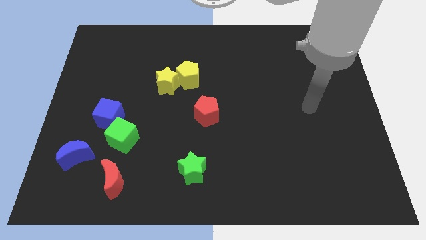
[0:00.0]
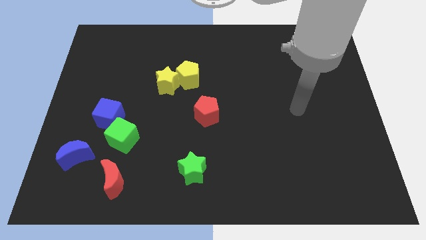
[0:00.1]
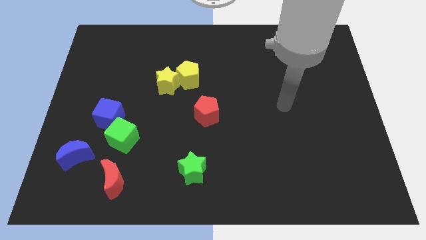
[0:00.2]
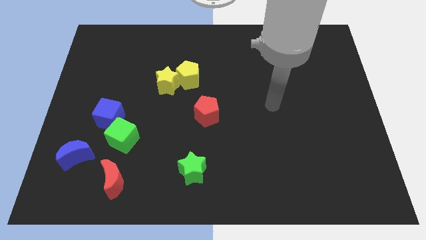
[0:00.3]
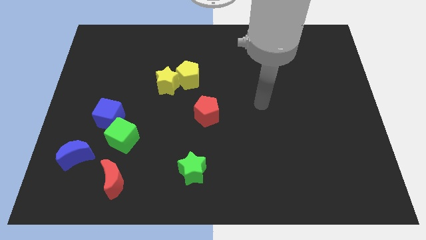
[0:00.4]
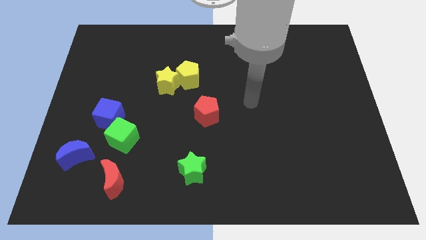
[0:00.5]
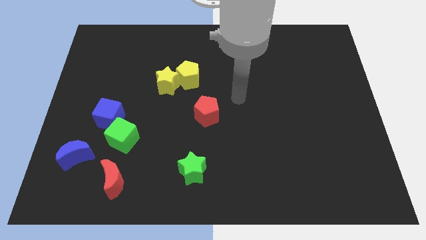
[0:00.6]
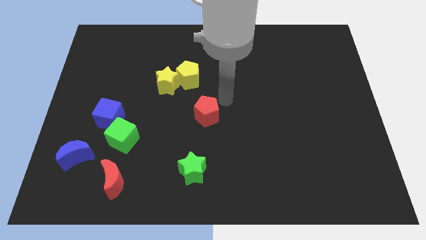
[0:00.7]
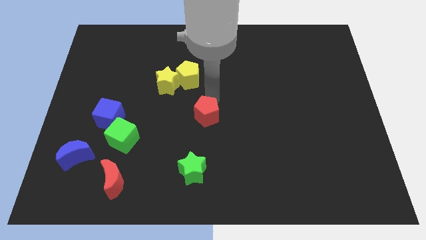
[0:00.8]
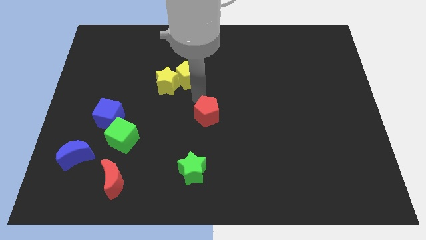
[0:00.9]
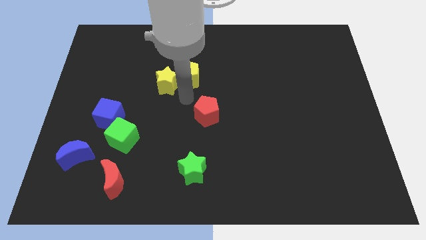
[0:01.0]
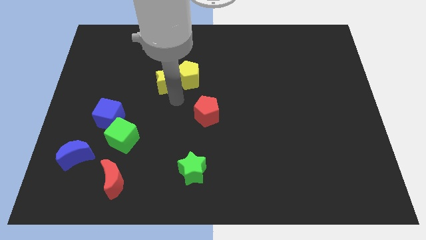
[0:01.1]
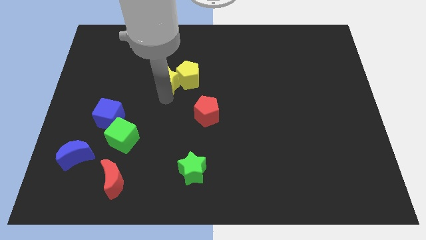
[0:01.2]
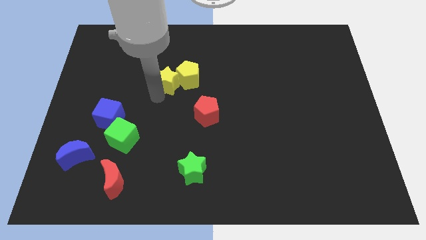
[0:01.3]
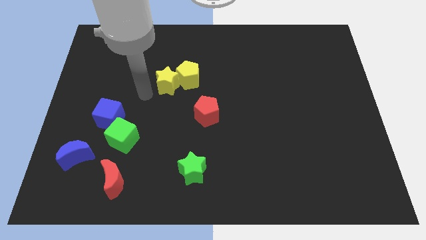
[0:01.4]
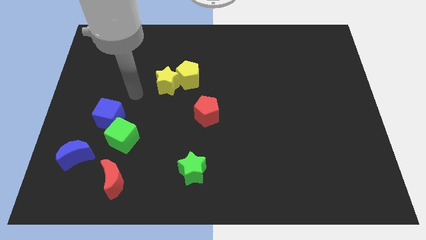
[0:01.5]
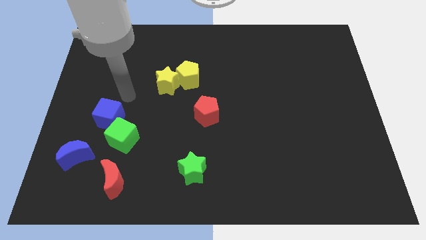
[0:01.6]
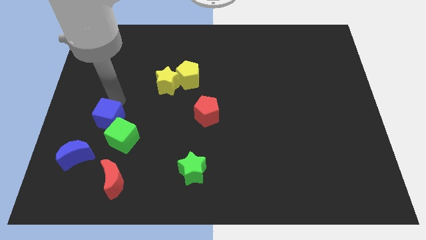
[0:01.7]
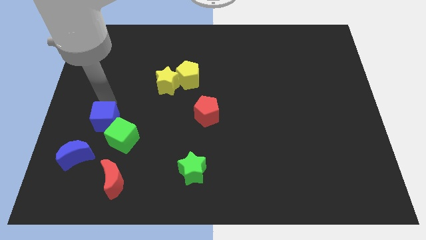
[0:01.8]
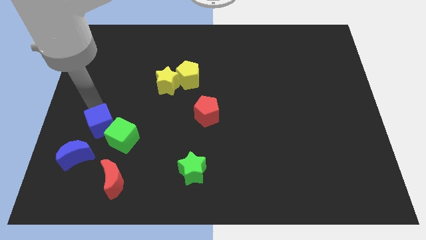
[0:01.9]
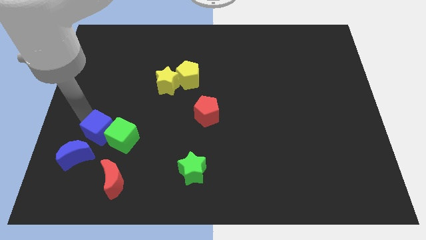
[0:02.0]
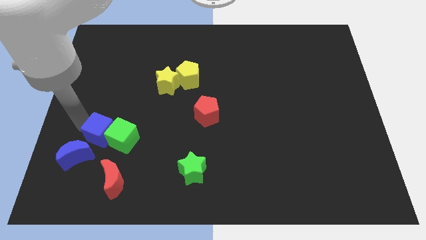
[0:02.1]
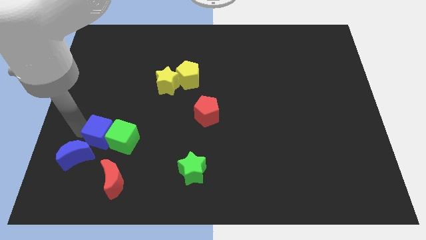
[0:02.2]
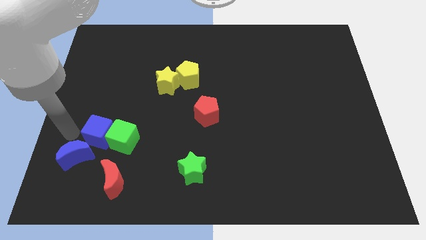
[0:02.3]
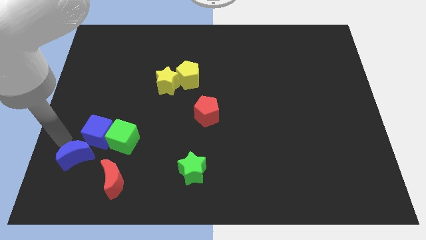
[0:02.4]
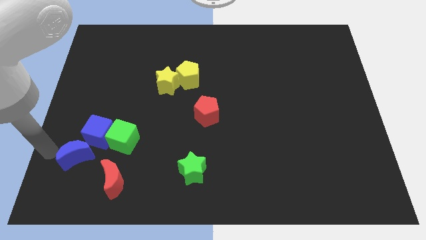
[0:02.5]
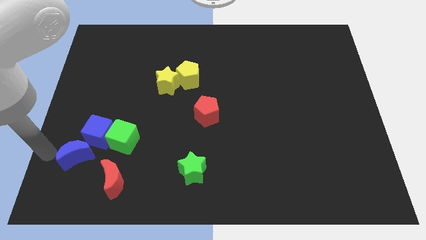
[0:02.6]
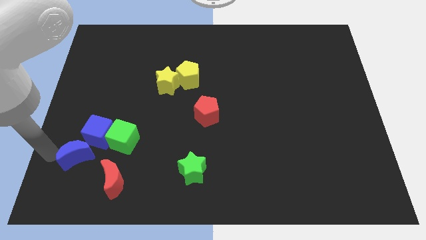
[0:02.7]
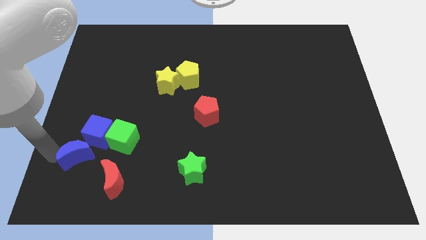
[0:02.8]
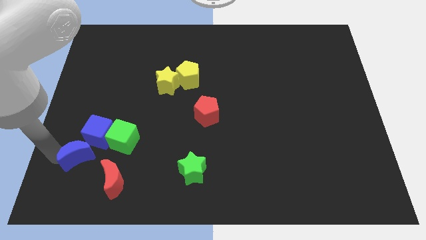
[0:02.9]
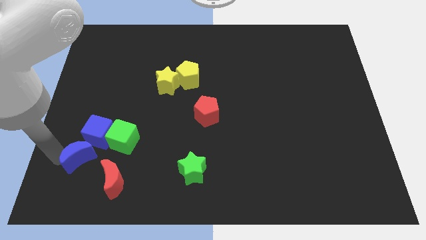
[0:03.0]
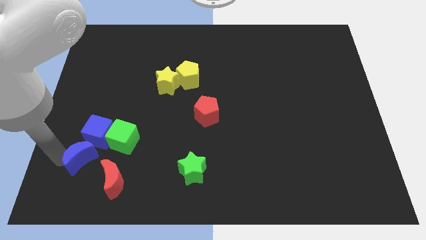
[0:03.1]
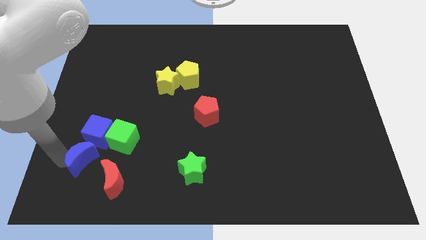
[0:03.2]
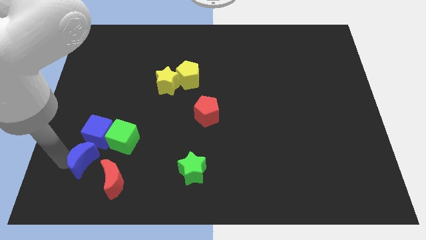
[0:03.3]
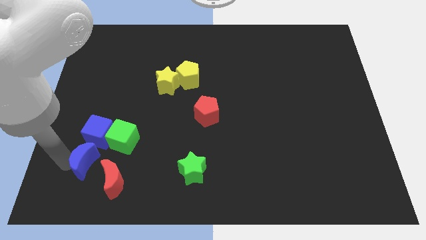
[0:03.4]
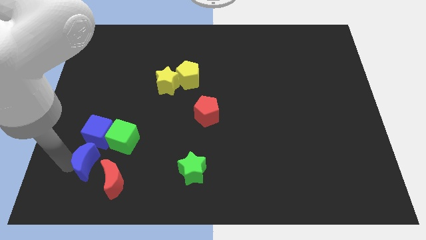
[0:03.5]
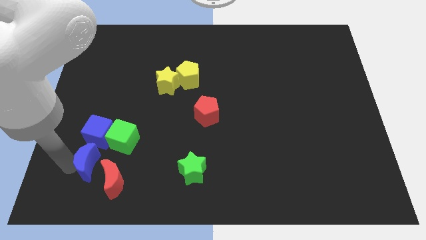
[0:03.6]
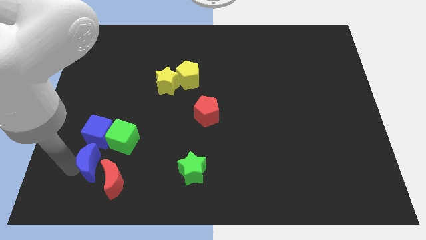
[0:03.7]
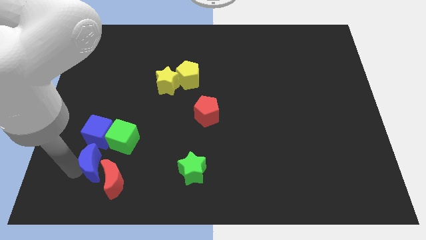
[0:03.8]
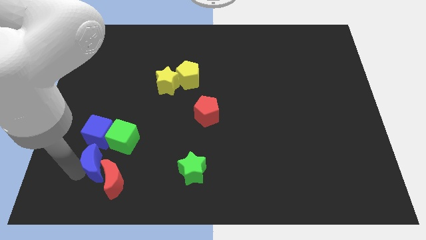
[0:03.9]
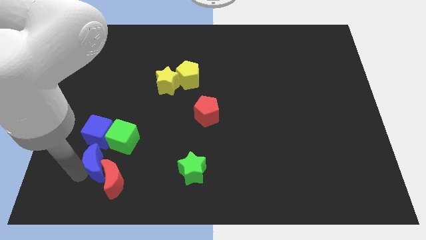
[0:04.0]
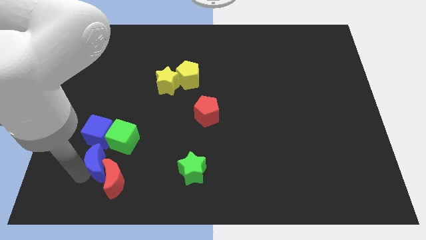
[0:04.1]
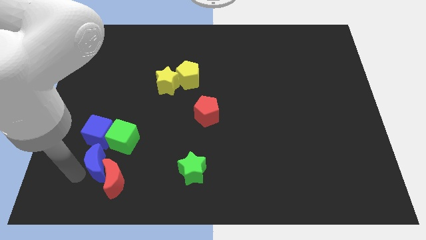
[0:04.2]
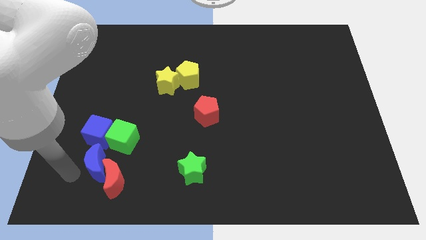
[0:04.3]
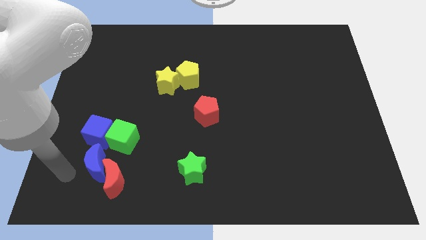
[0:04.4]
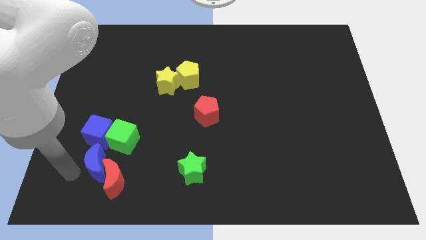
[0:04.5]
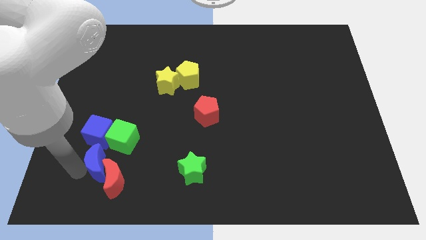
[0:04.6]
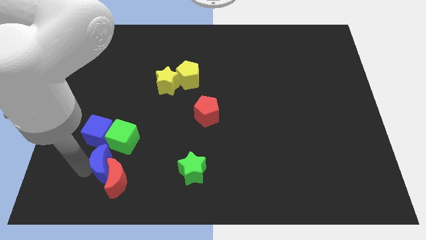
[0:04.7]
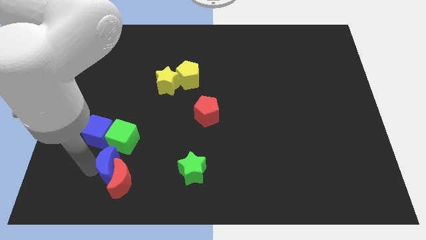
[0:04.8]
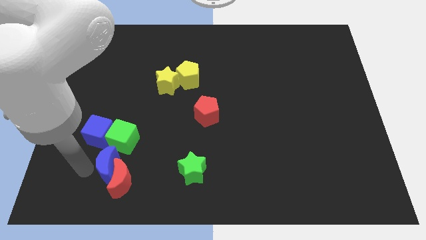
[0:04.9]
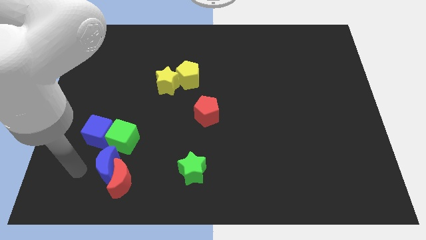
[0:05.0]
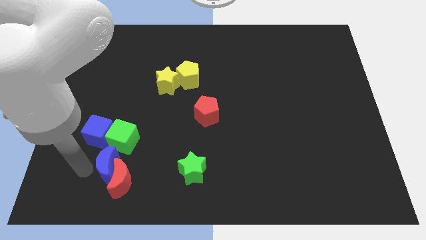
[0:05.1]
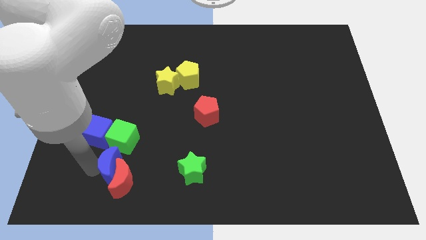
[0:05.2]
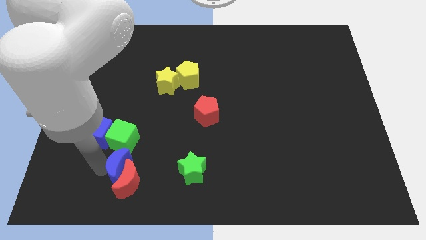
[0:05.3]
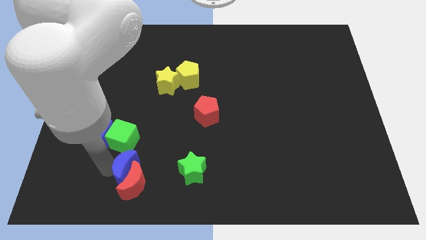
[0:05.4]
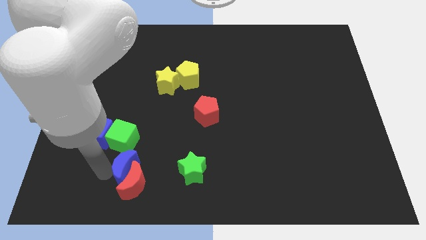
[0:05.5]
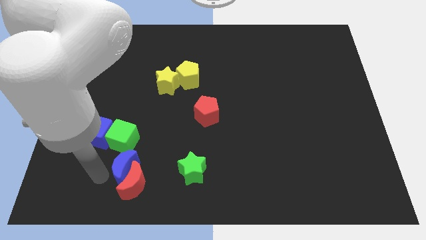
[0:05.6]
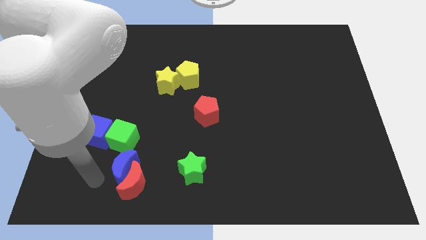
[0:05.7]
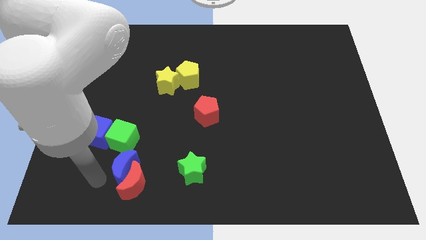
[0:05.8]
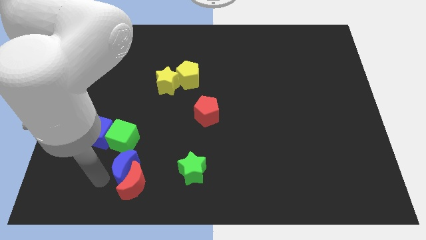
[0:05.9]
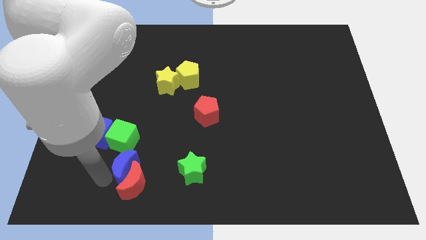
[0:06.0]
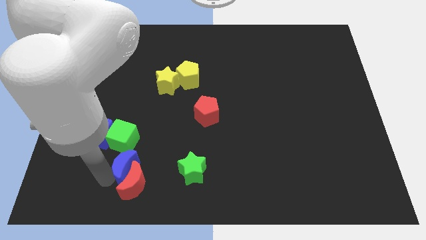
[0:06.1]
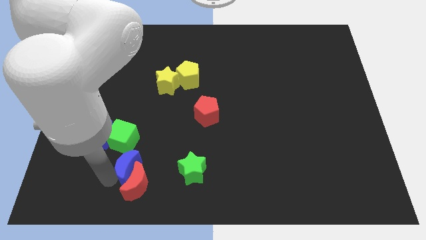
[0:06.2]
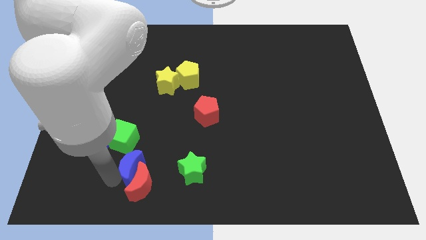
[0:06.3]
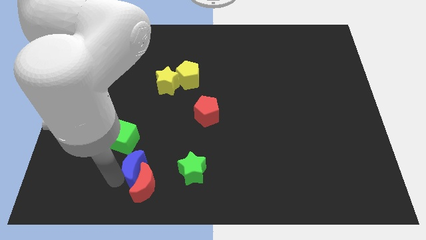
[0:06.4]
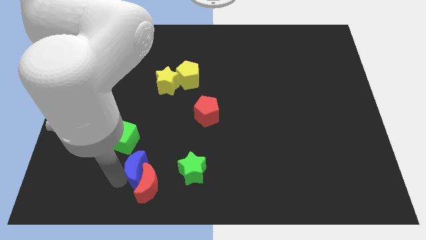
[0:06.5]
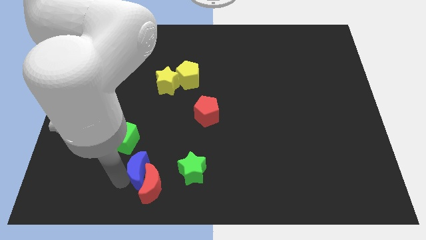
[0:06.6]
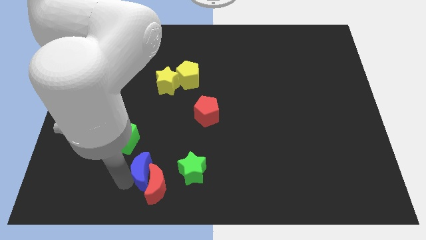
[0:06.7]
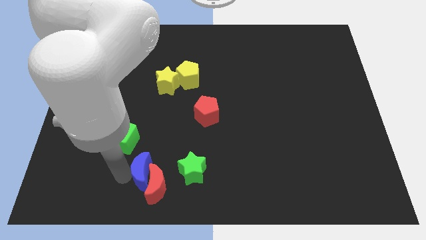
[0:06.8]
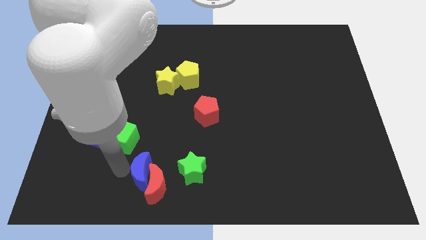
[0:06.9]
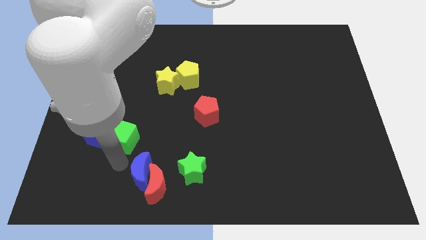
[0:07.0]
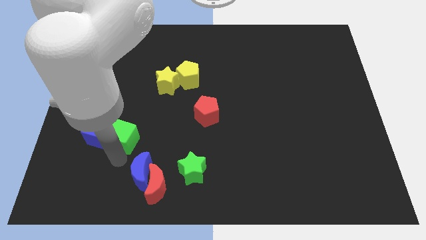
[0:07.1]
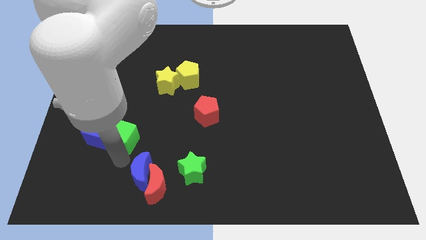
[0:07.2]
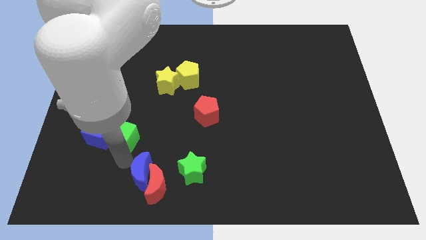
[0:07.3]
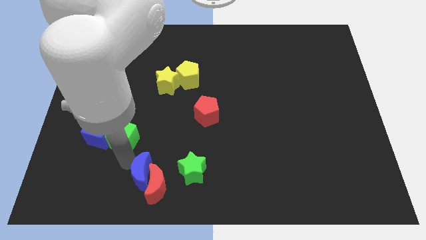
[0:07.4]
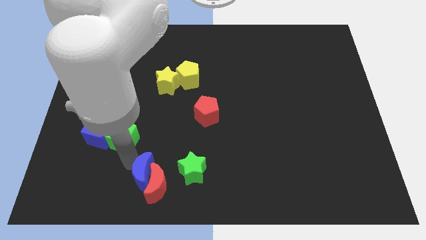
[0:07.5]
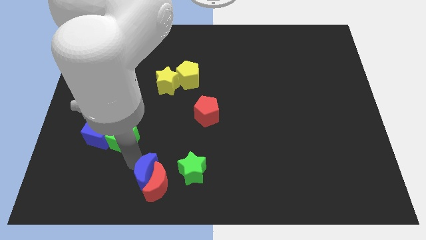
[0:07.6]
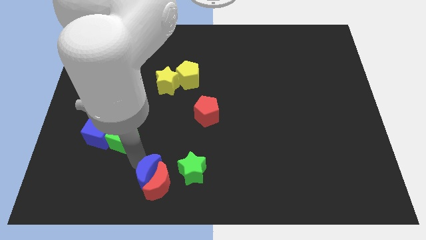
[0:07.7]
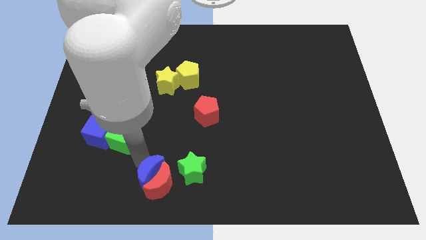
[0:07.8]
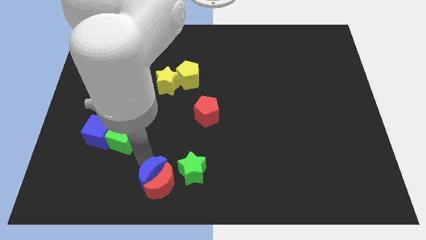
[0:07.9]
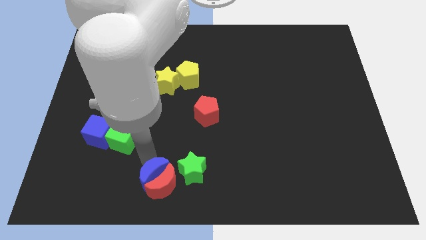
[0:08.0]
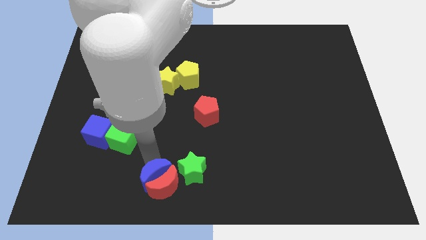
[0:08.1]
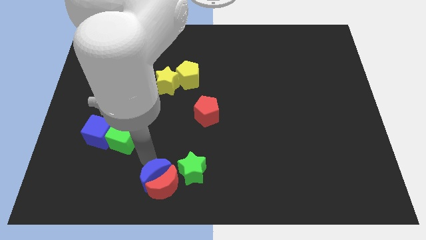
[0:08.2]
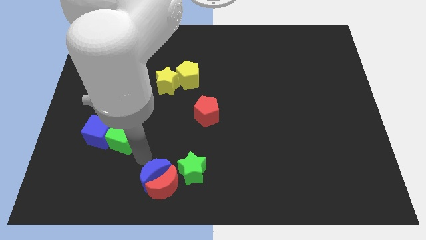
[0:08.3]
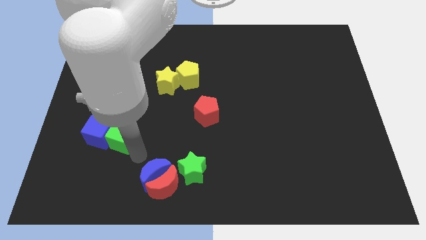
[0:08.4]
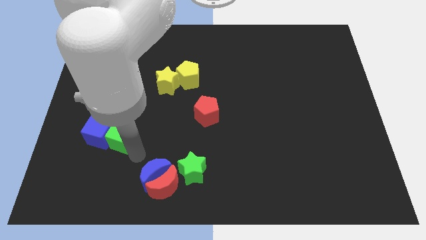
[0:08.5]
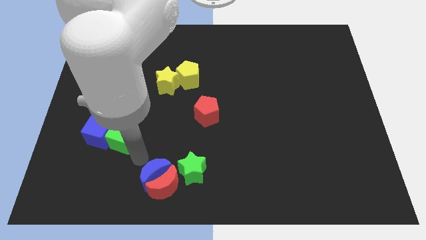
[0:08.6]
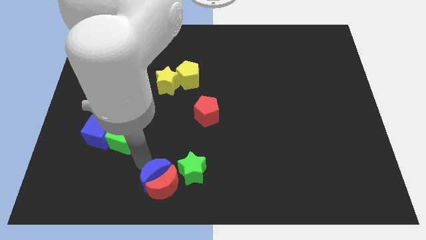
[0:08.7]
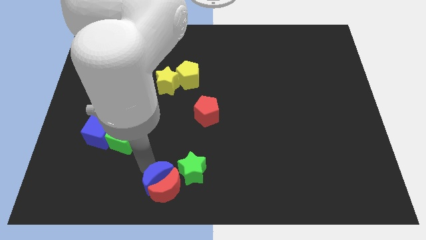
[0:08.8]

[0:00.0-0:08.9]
move the blue moon to the bottom side
